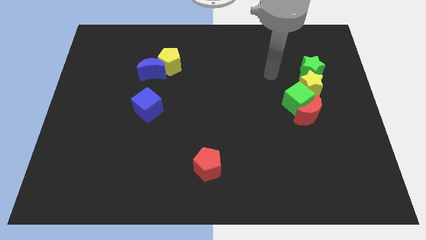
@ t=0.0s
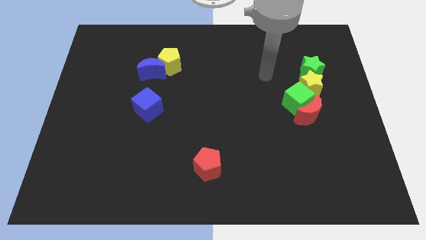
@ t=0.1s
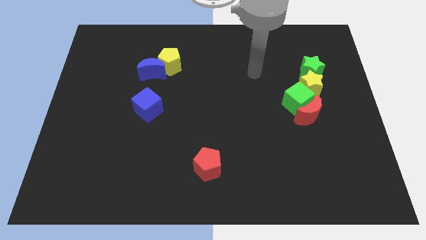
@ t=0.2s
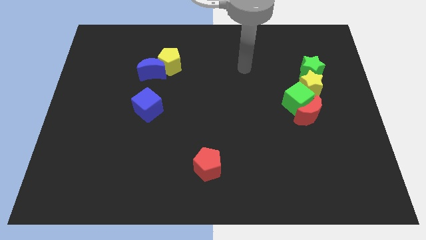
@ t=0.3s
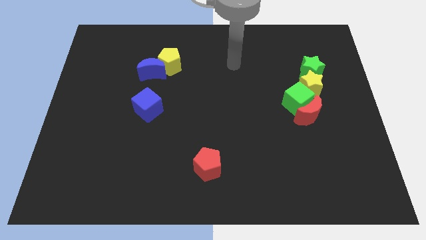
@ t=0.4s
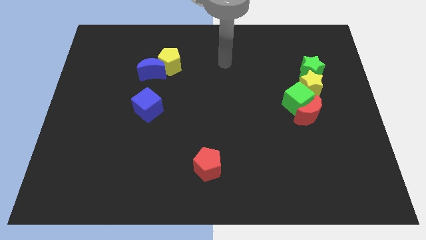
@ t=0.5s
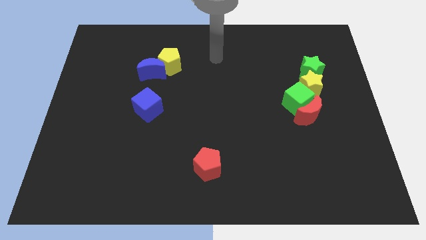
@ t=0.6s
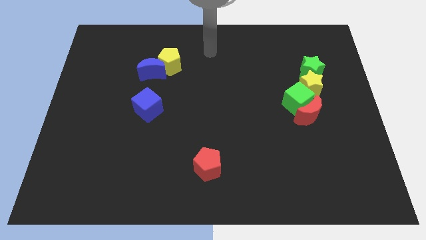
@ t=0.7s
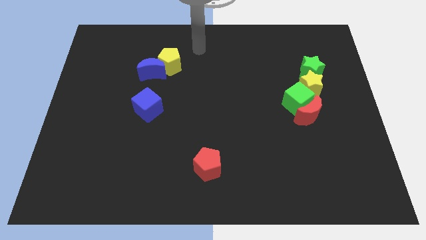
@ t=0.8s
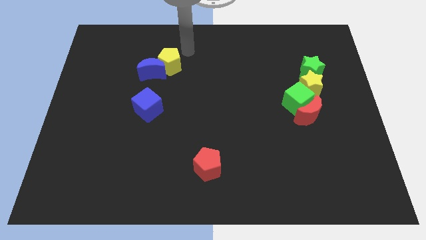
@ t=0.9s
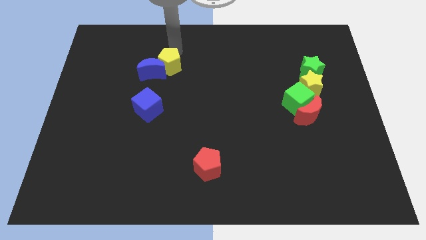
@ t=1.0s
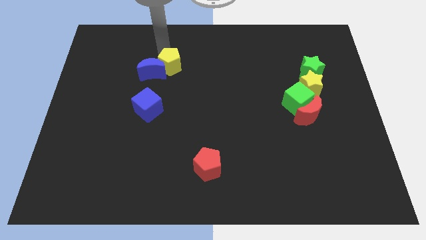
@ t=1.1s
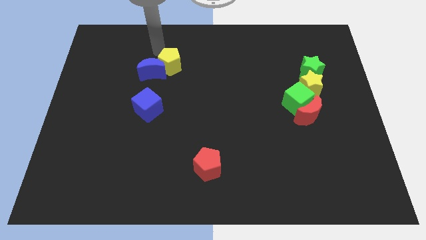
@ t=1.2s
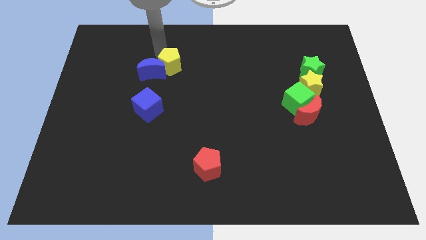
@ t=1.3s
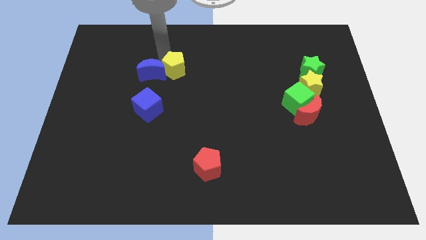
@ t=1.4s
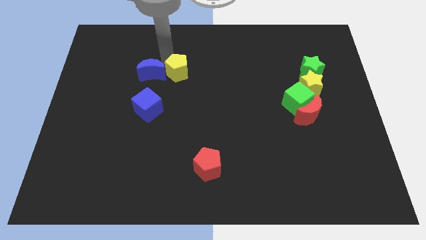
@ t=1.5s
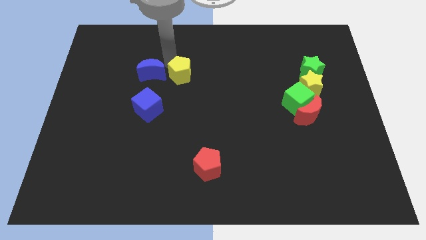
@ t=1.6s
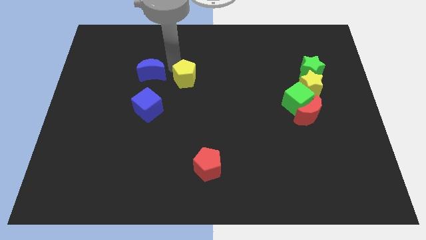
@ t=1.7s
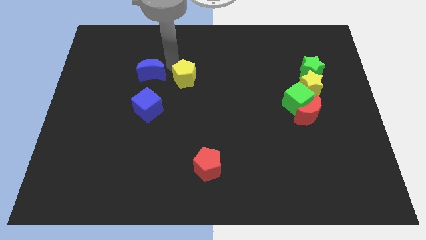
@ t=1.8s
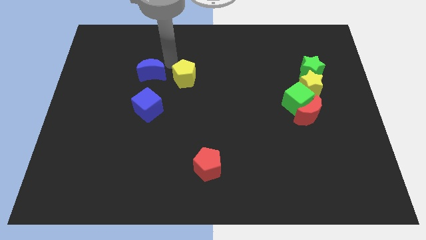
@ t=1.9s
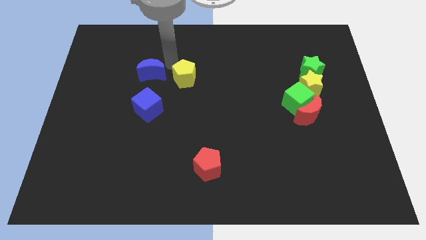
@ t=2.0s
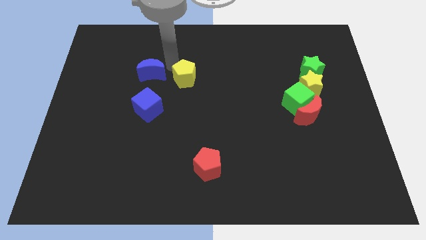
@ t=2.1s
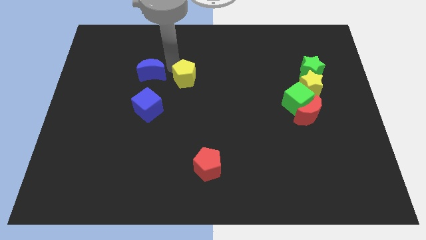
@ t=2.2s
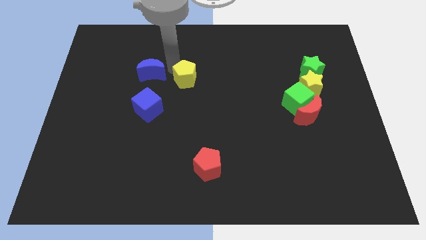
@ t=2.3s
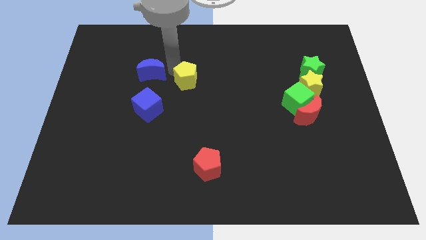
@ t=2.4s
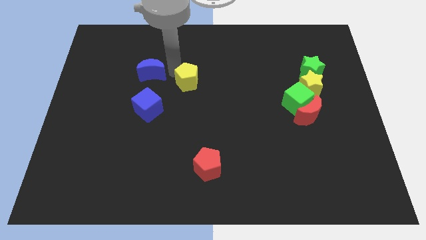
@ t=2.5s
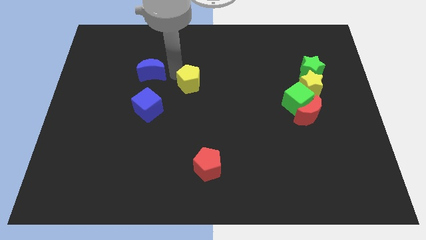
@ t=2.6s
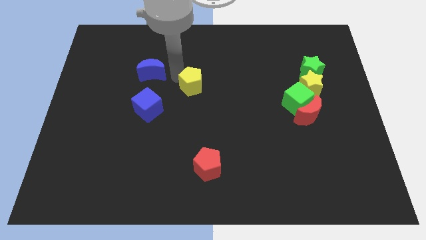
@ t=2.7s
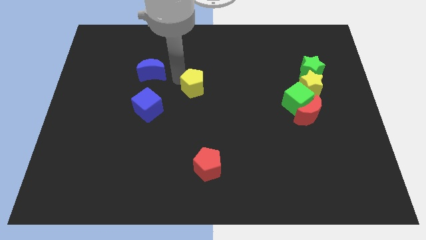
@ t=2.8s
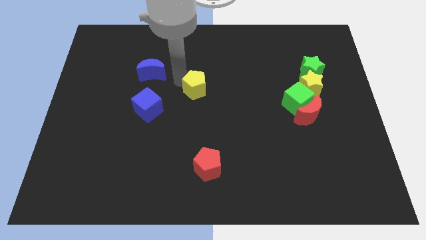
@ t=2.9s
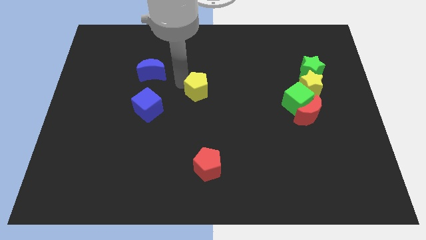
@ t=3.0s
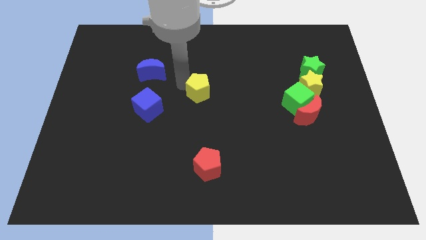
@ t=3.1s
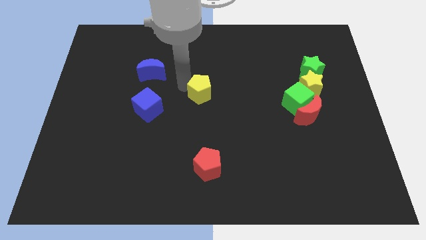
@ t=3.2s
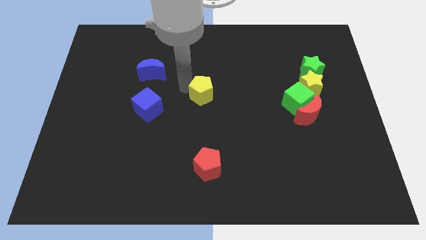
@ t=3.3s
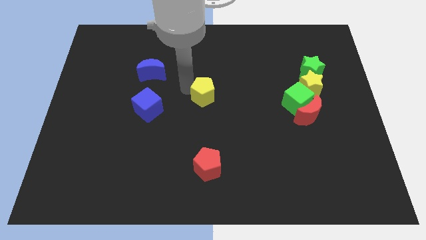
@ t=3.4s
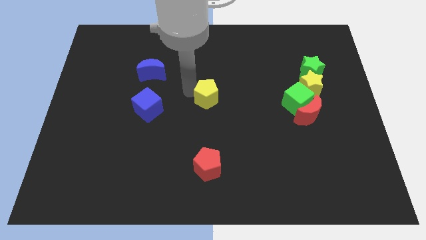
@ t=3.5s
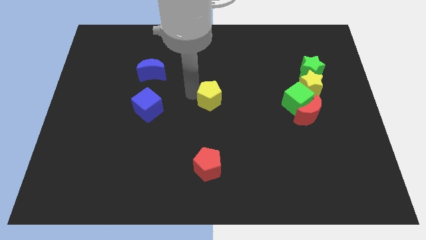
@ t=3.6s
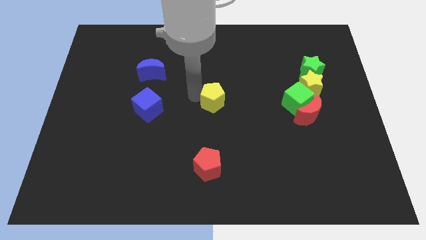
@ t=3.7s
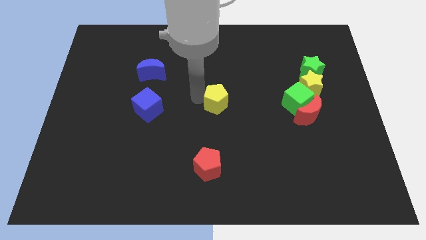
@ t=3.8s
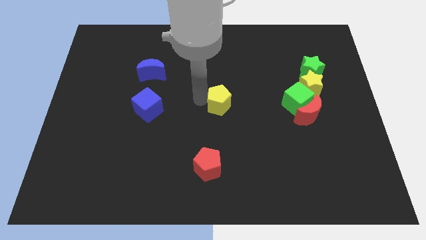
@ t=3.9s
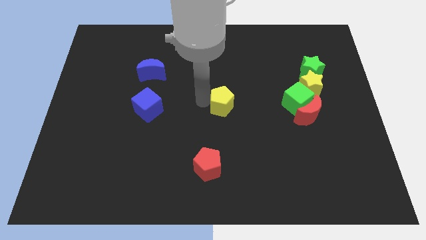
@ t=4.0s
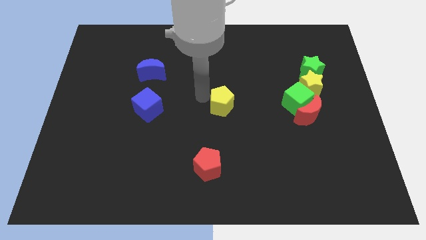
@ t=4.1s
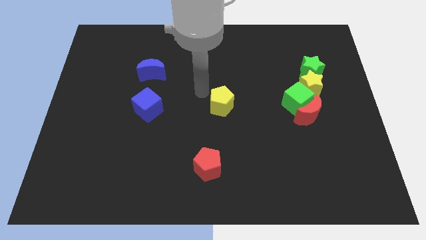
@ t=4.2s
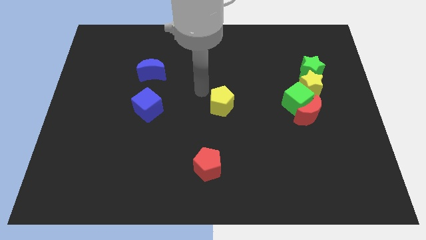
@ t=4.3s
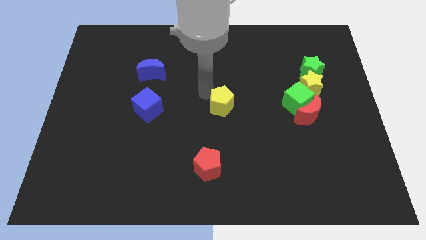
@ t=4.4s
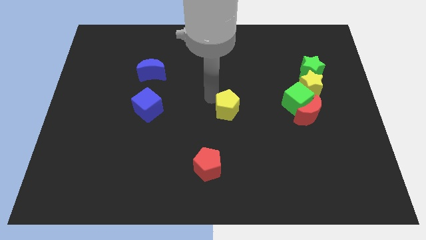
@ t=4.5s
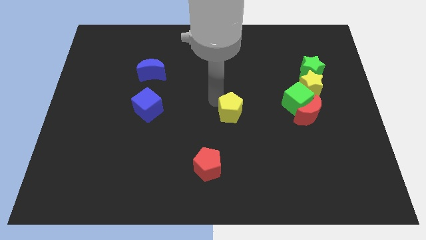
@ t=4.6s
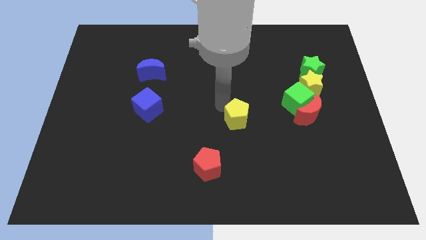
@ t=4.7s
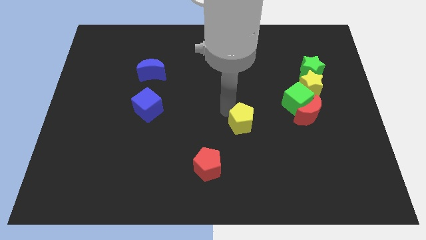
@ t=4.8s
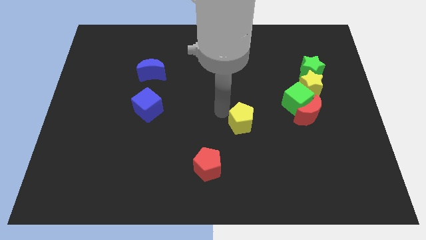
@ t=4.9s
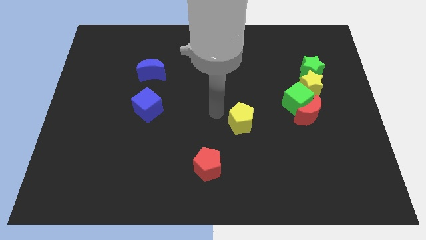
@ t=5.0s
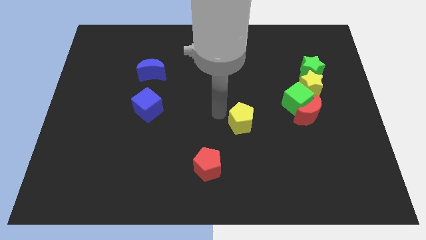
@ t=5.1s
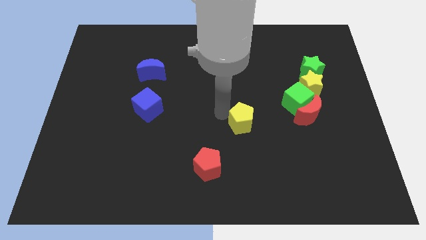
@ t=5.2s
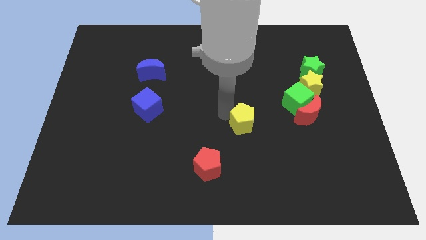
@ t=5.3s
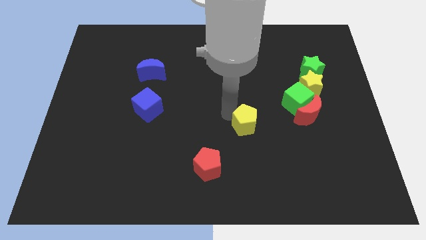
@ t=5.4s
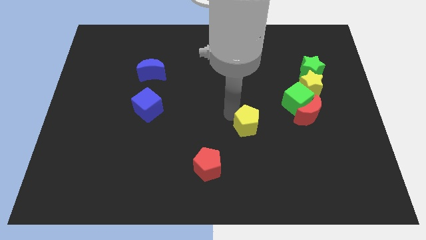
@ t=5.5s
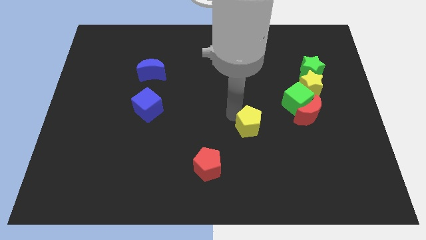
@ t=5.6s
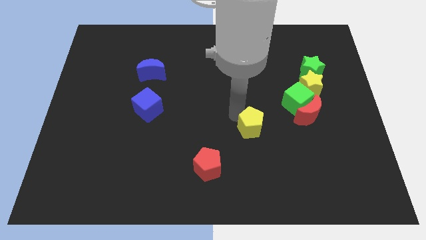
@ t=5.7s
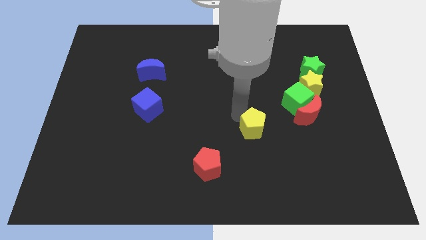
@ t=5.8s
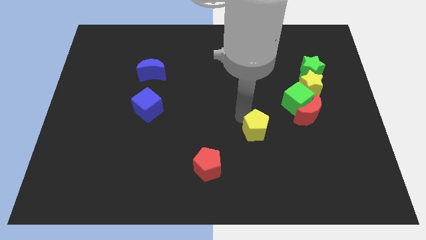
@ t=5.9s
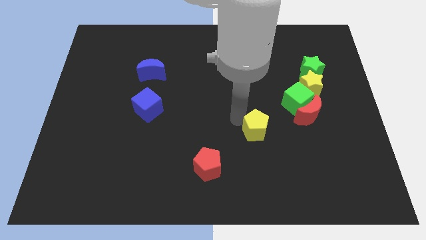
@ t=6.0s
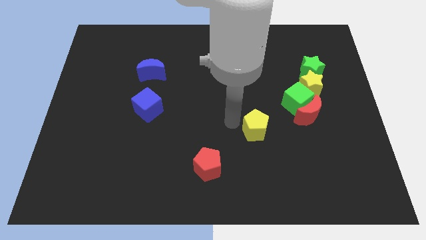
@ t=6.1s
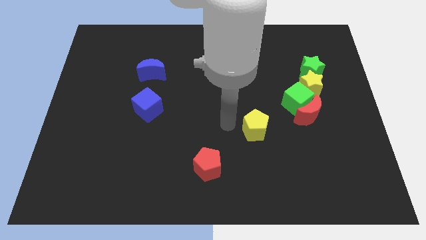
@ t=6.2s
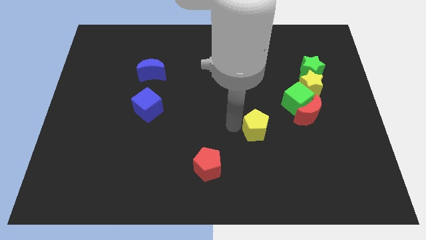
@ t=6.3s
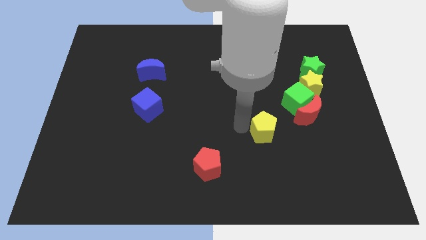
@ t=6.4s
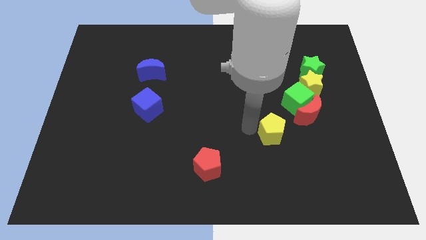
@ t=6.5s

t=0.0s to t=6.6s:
slide the yellow pentagon diagonally down and to the left of the red moon

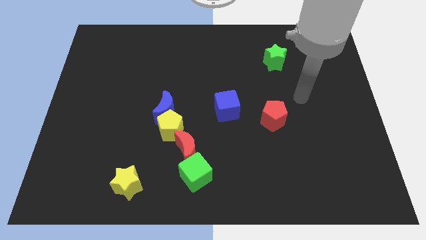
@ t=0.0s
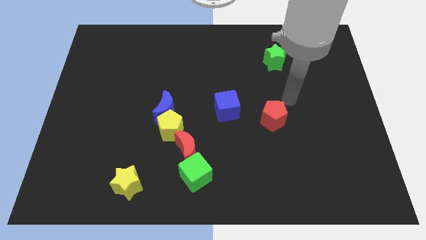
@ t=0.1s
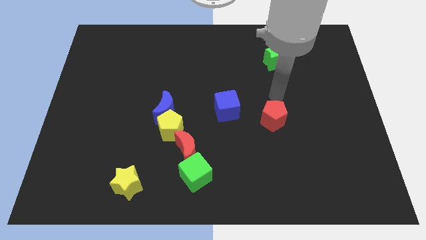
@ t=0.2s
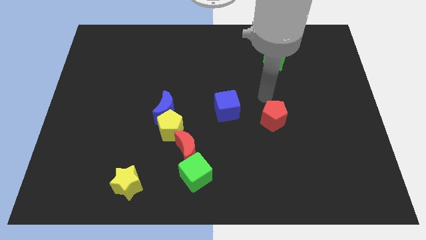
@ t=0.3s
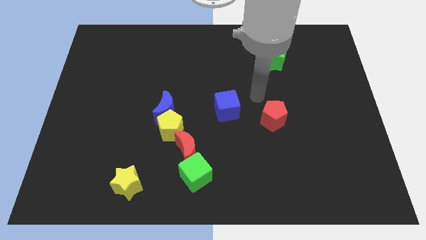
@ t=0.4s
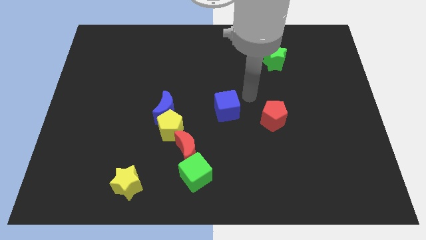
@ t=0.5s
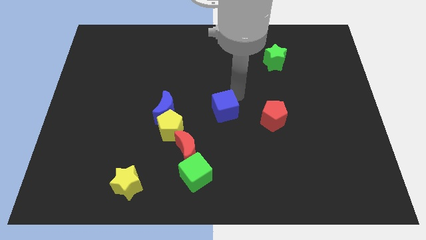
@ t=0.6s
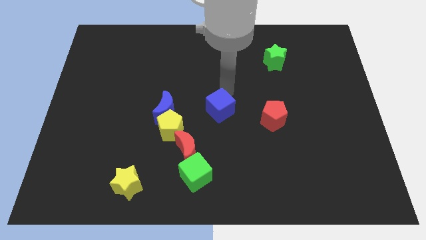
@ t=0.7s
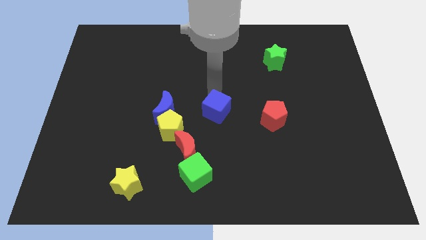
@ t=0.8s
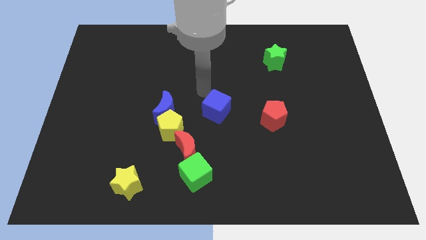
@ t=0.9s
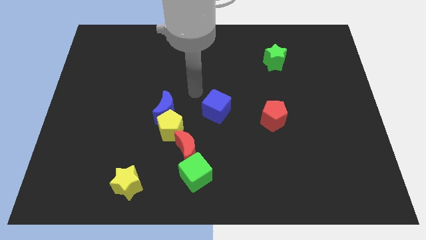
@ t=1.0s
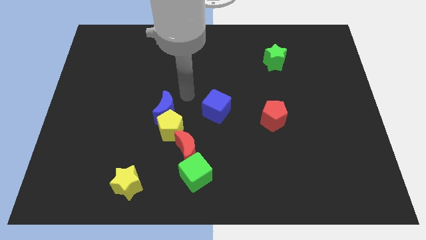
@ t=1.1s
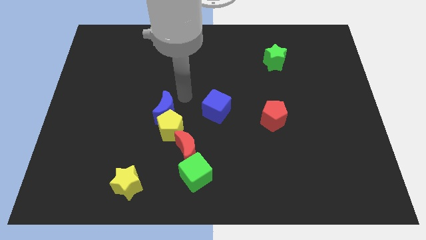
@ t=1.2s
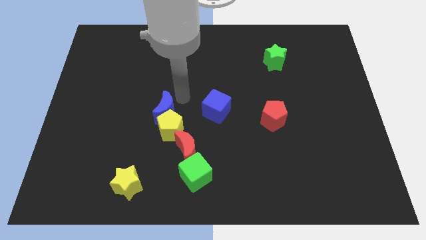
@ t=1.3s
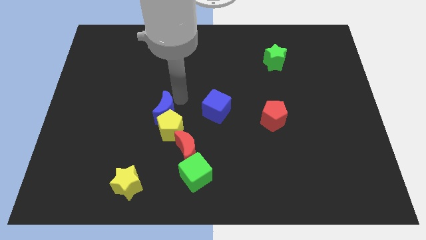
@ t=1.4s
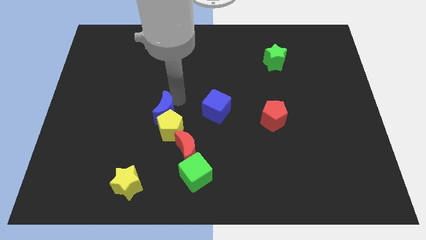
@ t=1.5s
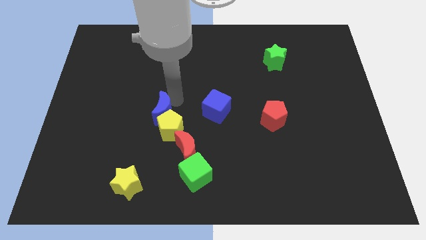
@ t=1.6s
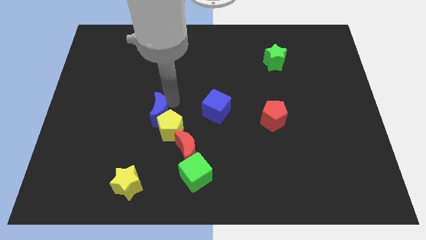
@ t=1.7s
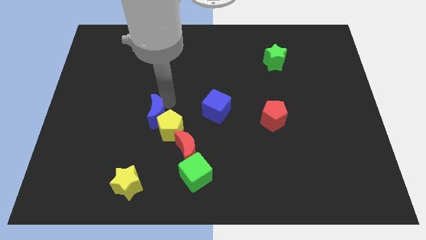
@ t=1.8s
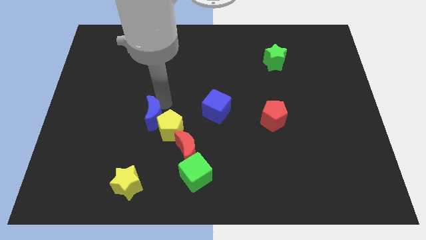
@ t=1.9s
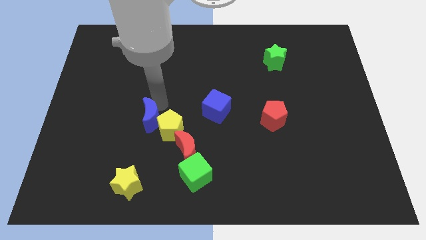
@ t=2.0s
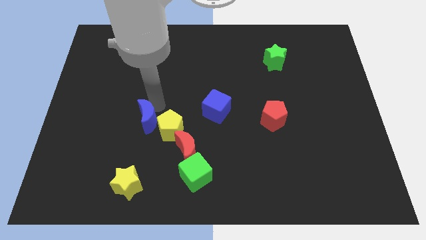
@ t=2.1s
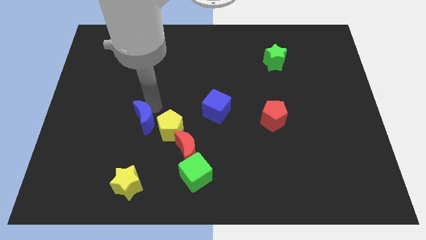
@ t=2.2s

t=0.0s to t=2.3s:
move the blue moon to the top side of the yellow star
